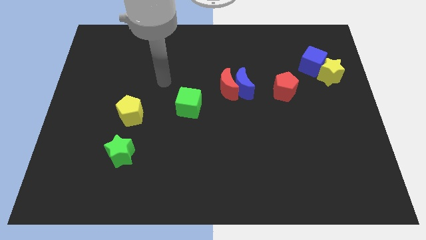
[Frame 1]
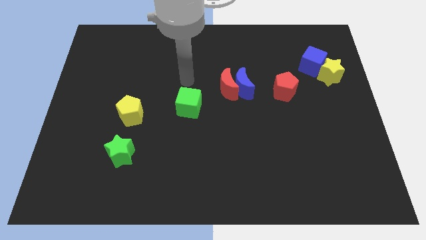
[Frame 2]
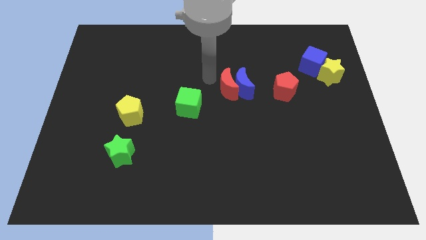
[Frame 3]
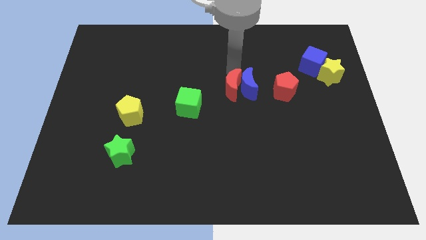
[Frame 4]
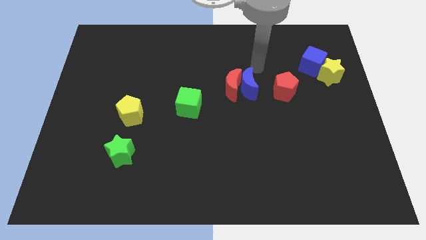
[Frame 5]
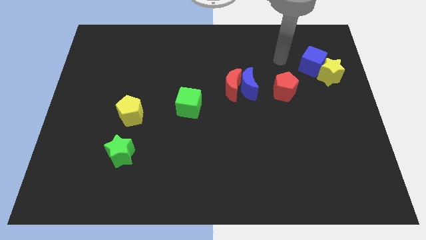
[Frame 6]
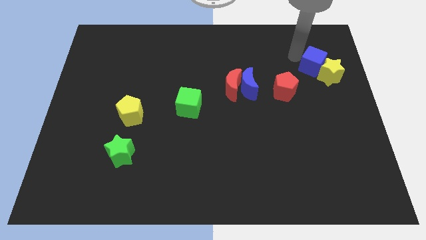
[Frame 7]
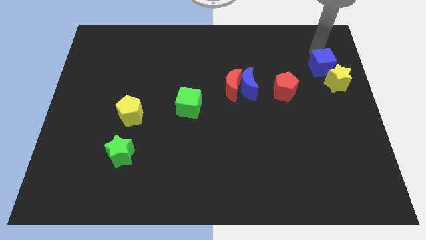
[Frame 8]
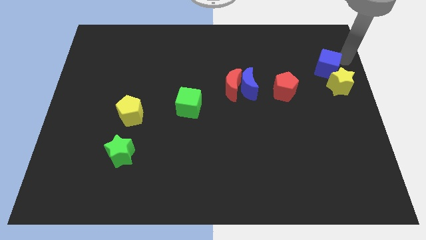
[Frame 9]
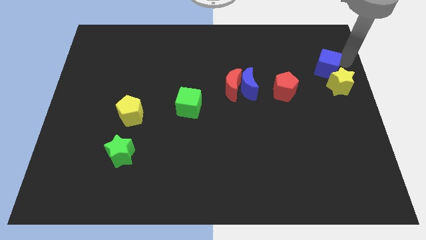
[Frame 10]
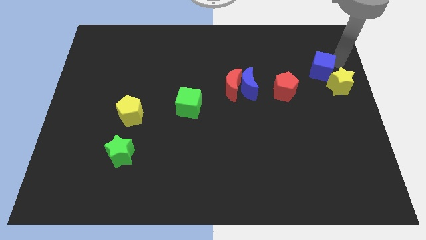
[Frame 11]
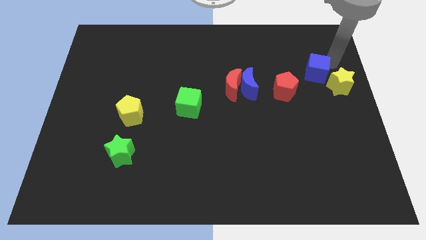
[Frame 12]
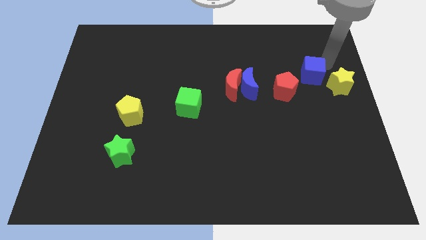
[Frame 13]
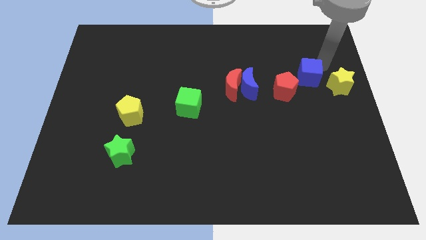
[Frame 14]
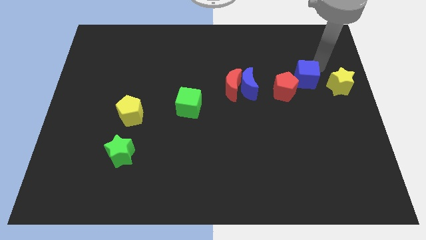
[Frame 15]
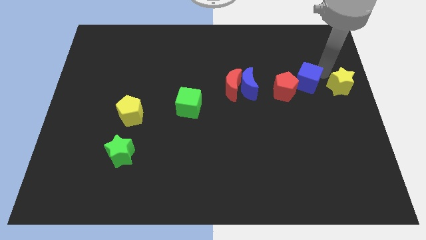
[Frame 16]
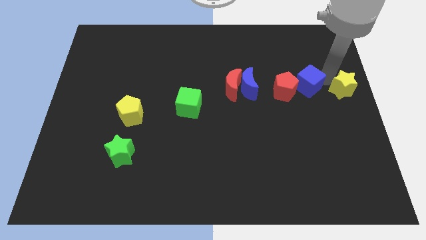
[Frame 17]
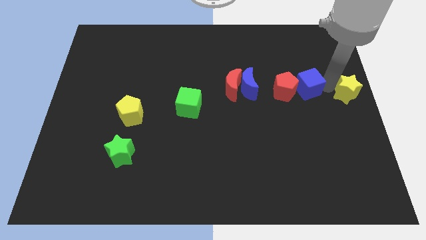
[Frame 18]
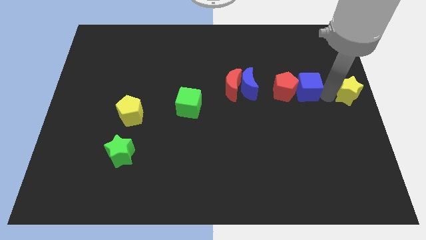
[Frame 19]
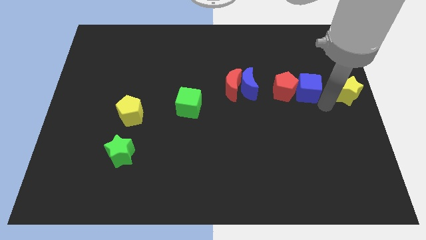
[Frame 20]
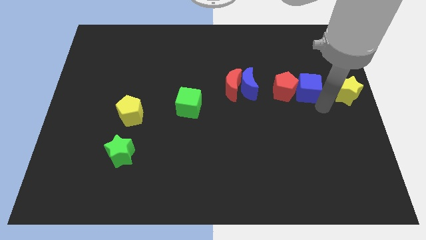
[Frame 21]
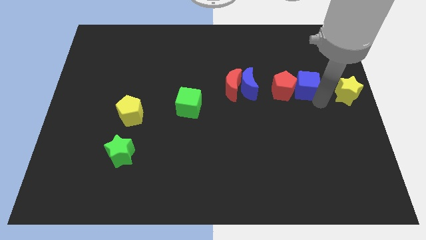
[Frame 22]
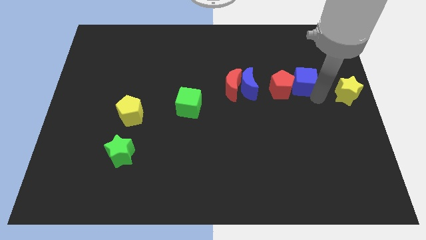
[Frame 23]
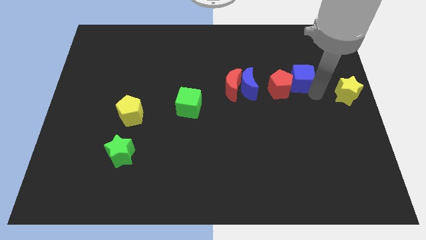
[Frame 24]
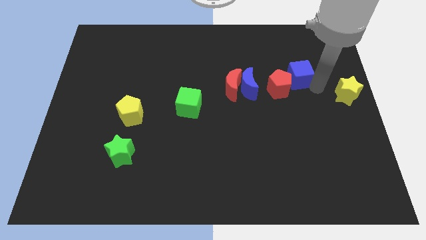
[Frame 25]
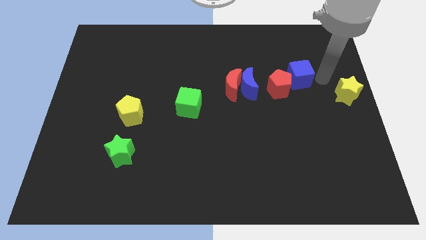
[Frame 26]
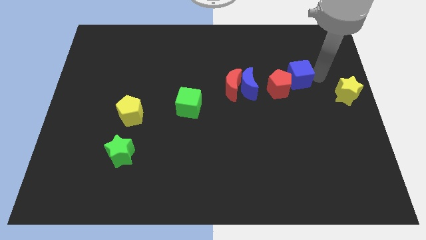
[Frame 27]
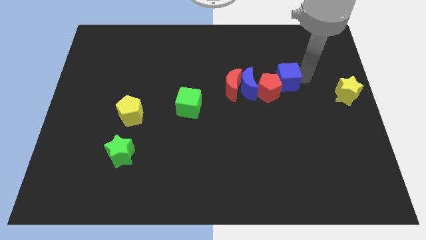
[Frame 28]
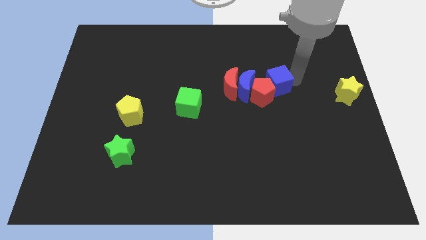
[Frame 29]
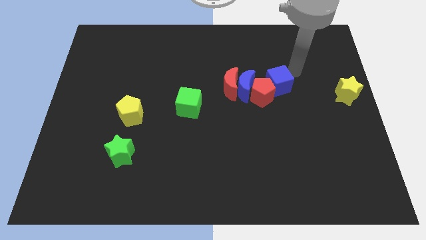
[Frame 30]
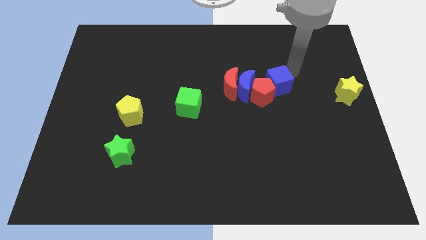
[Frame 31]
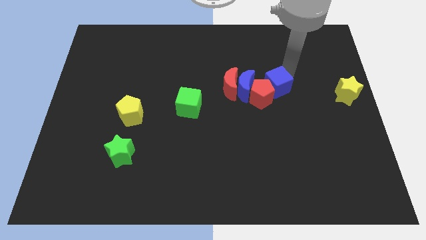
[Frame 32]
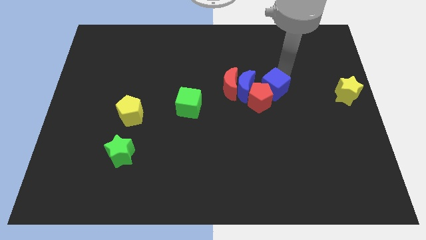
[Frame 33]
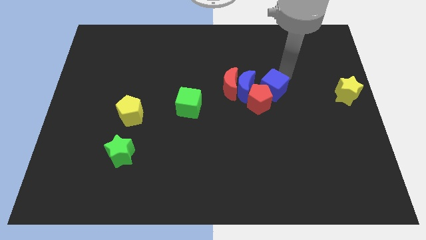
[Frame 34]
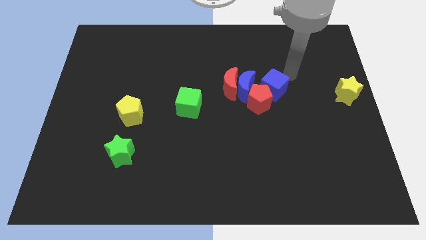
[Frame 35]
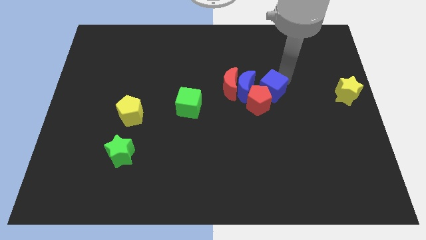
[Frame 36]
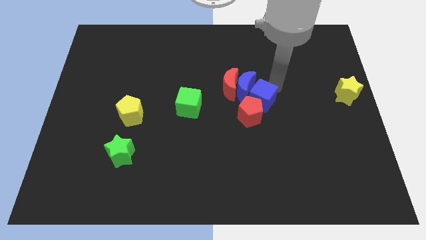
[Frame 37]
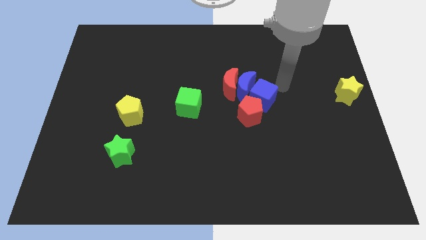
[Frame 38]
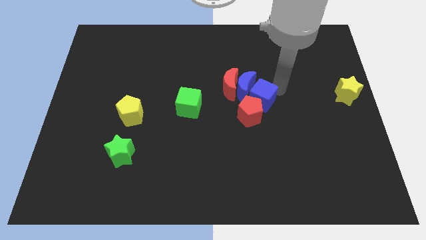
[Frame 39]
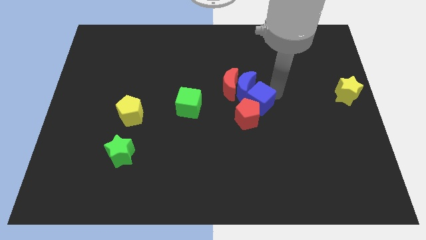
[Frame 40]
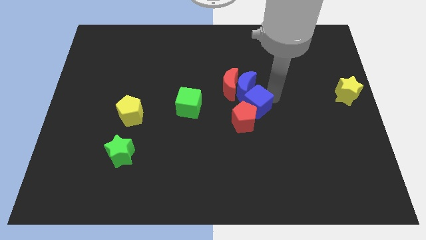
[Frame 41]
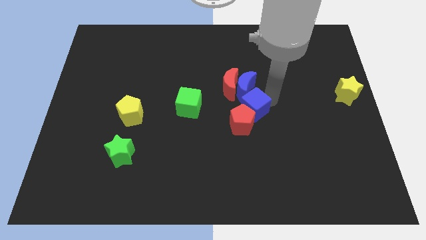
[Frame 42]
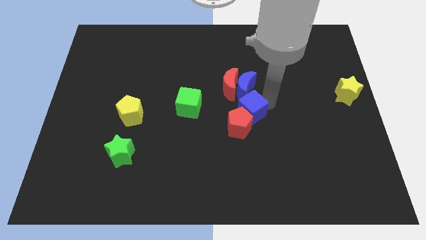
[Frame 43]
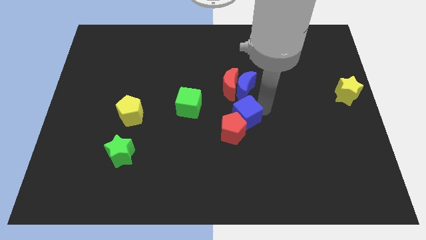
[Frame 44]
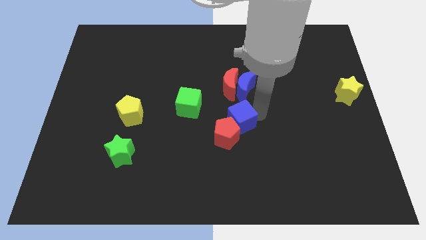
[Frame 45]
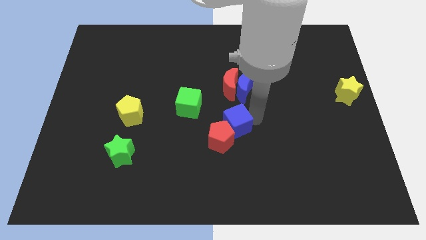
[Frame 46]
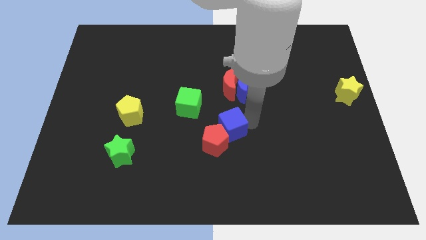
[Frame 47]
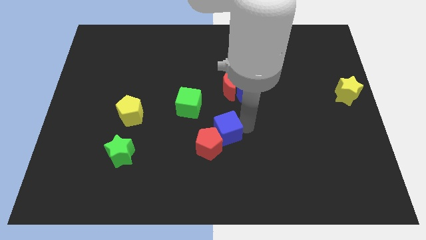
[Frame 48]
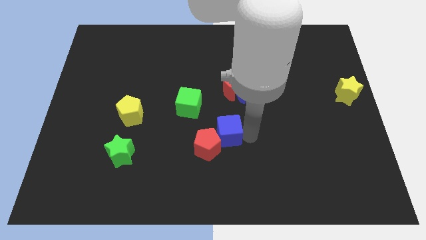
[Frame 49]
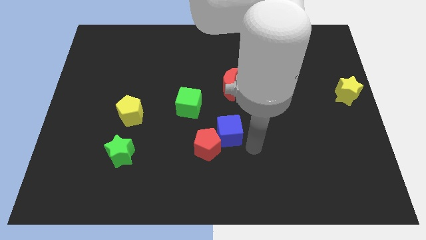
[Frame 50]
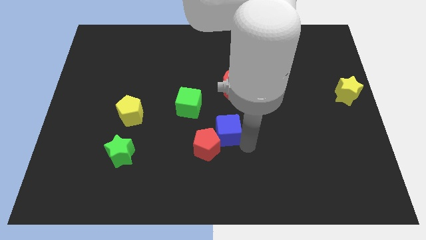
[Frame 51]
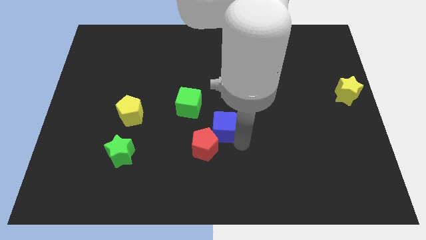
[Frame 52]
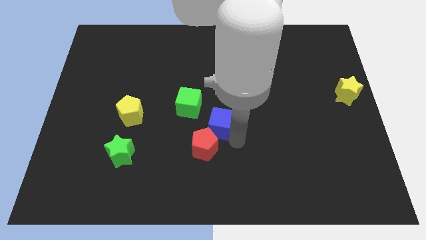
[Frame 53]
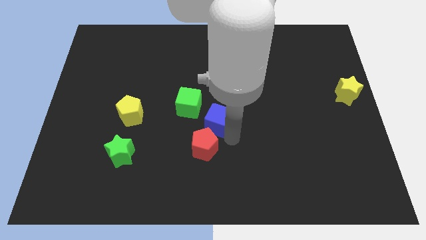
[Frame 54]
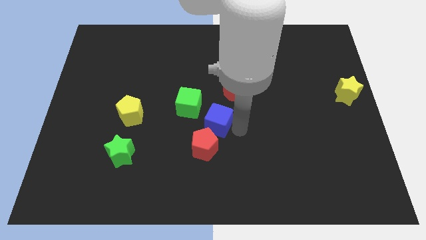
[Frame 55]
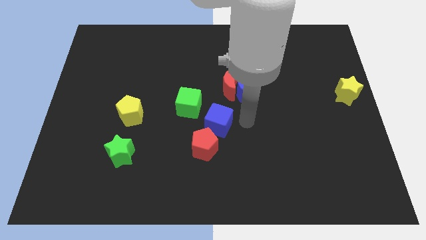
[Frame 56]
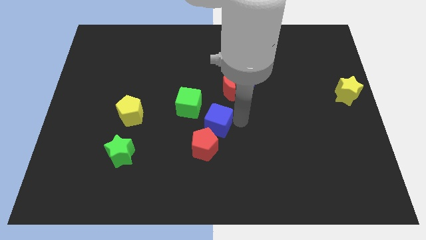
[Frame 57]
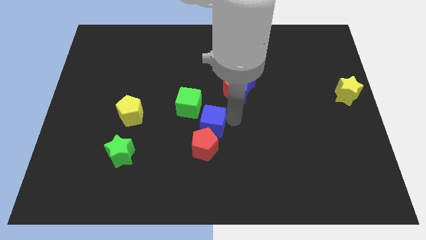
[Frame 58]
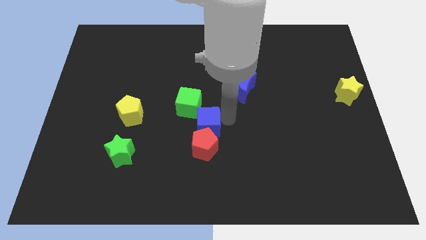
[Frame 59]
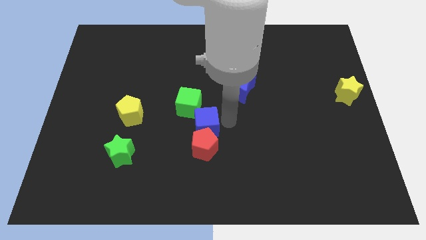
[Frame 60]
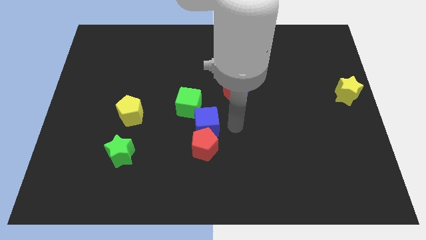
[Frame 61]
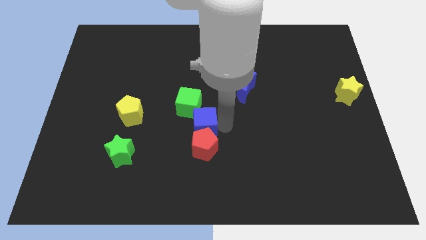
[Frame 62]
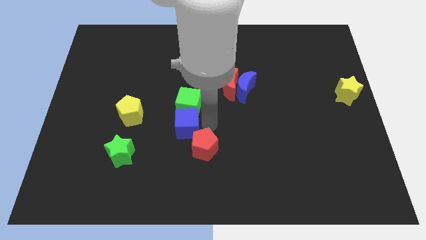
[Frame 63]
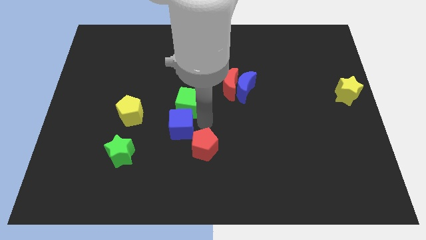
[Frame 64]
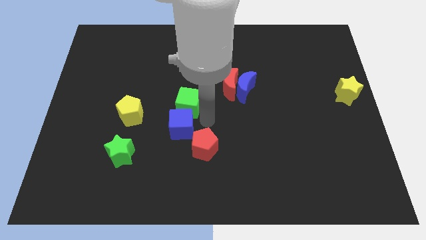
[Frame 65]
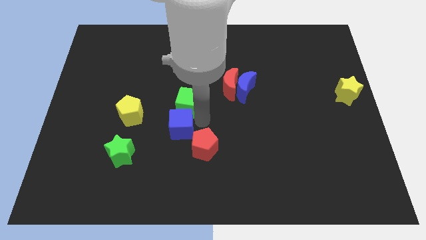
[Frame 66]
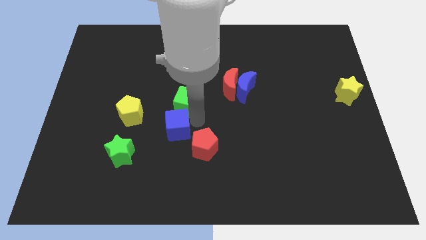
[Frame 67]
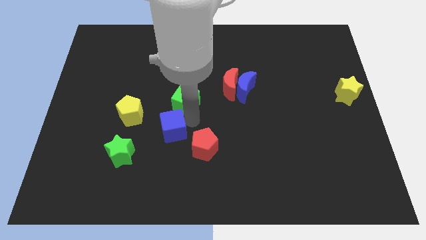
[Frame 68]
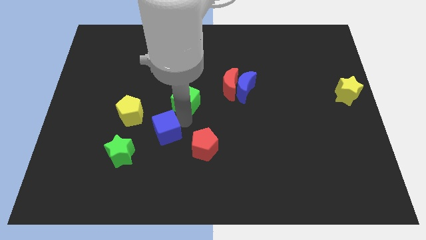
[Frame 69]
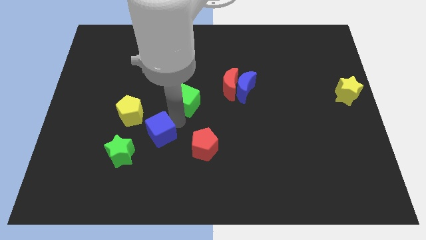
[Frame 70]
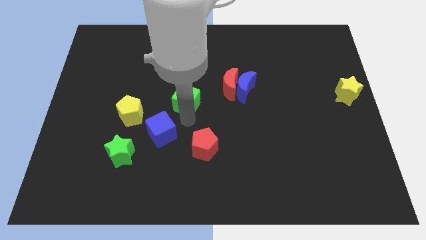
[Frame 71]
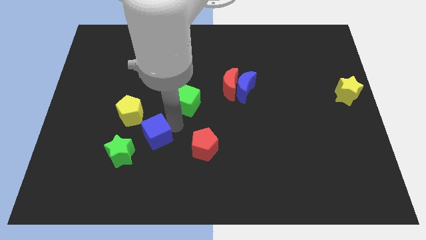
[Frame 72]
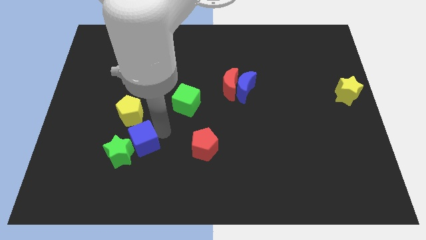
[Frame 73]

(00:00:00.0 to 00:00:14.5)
put the blue cube towards the green star

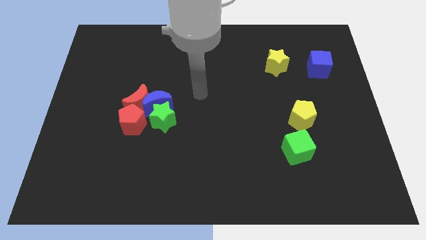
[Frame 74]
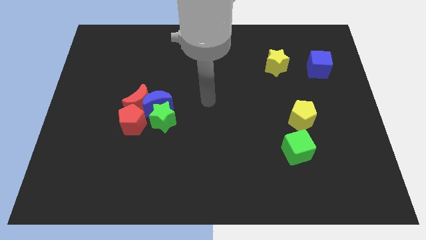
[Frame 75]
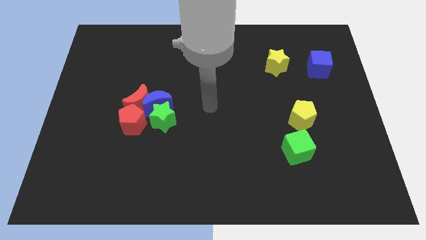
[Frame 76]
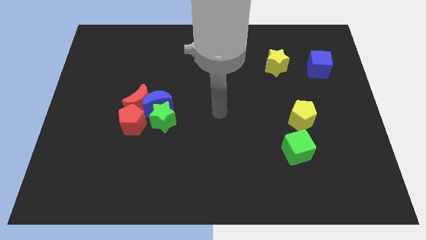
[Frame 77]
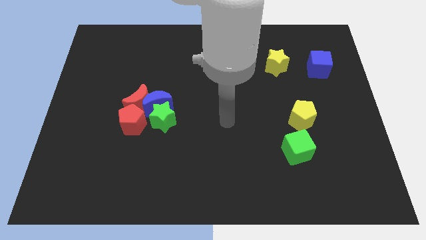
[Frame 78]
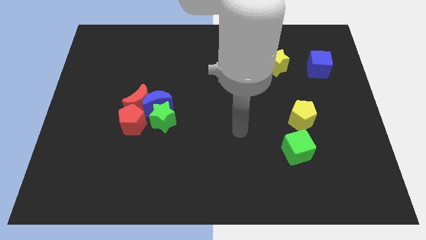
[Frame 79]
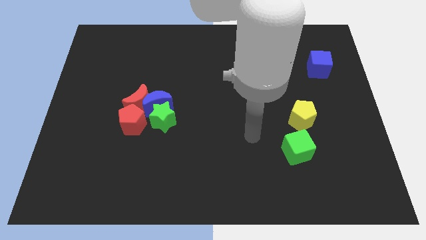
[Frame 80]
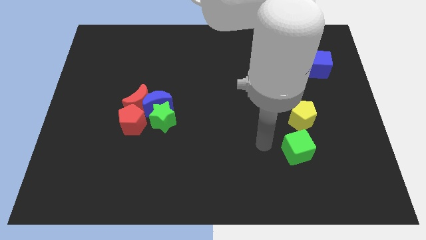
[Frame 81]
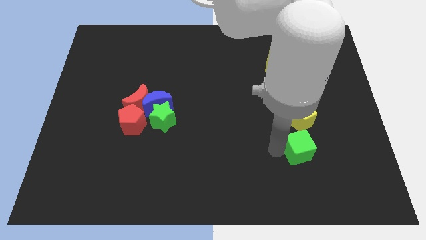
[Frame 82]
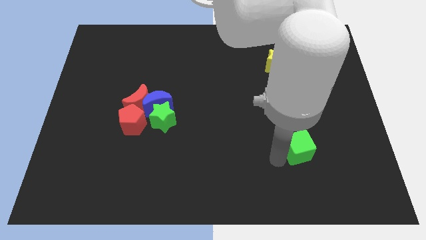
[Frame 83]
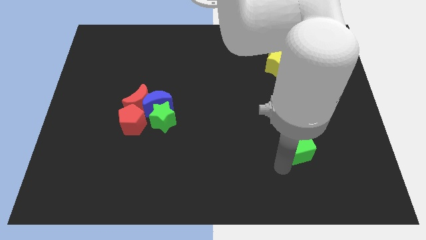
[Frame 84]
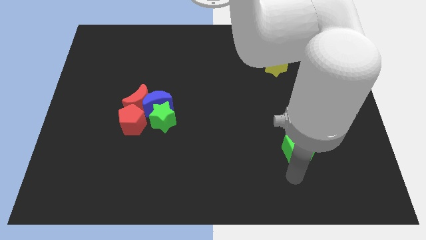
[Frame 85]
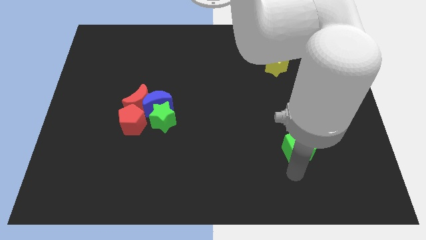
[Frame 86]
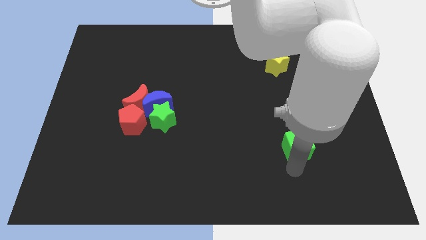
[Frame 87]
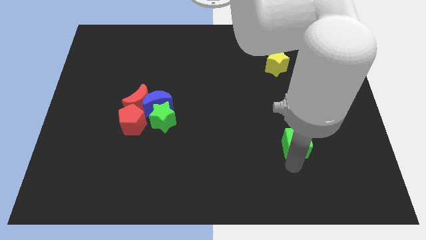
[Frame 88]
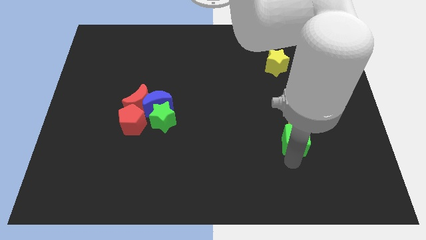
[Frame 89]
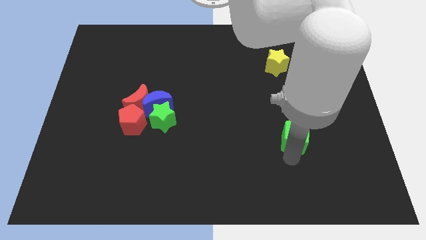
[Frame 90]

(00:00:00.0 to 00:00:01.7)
move the green cube towards the yellow pentagon
